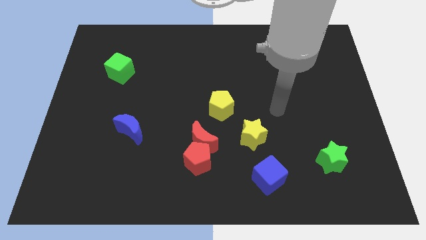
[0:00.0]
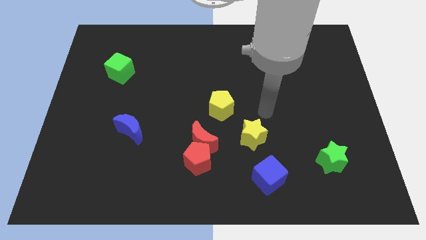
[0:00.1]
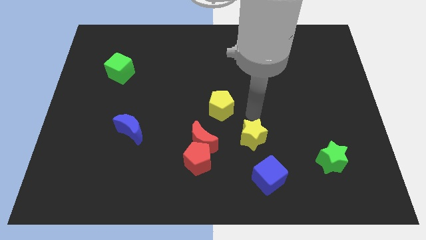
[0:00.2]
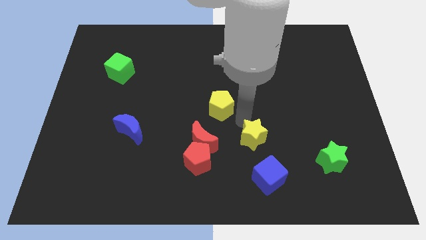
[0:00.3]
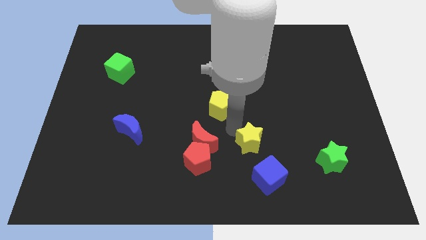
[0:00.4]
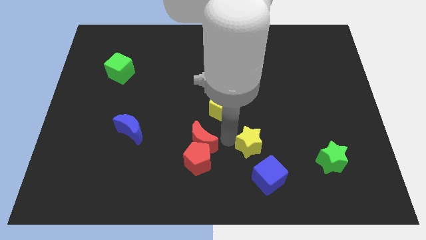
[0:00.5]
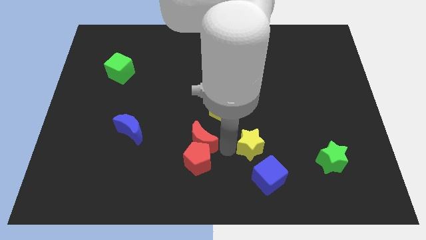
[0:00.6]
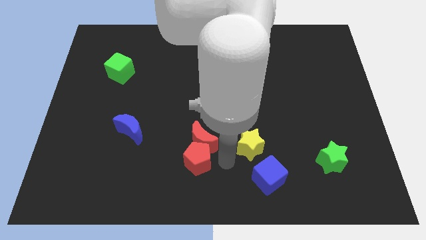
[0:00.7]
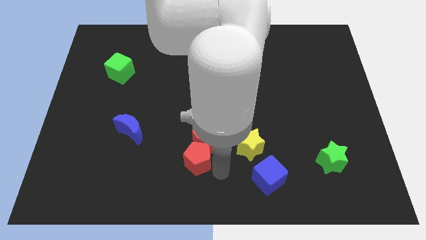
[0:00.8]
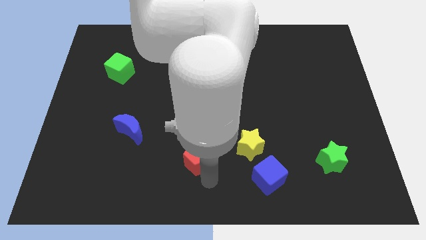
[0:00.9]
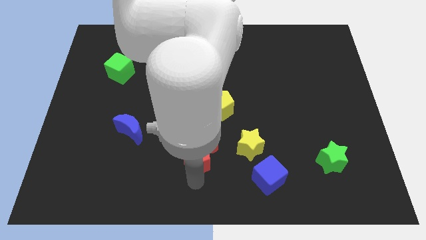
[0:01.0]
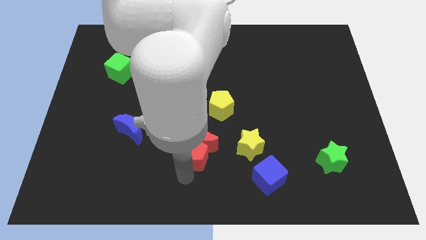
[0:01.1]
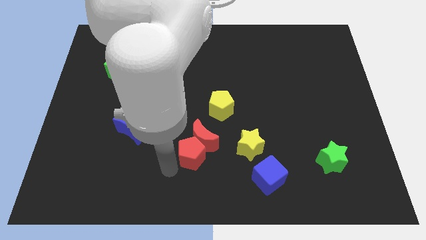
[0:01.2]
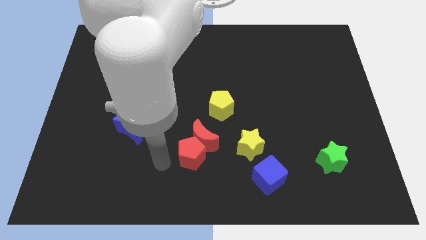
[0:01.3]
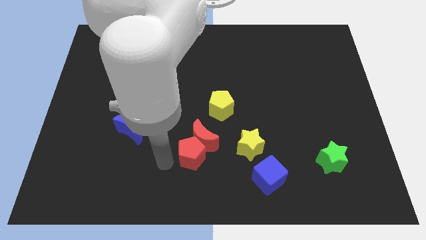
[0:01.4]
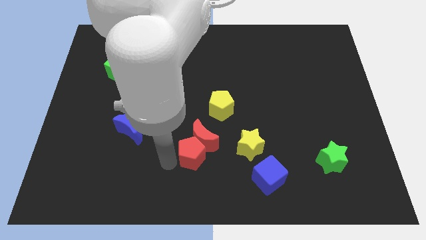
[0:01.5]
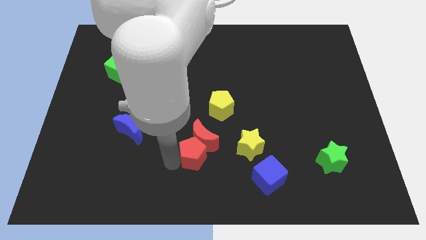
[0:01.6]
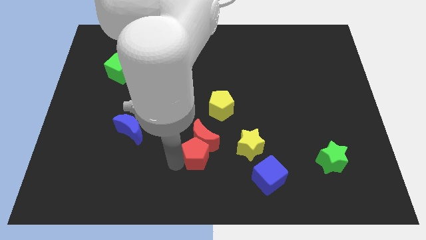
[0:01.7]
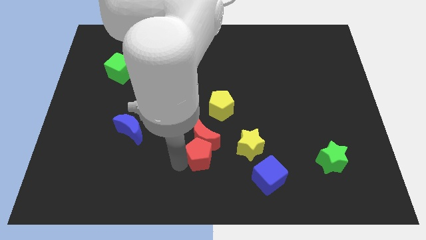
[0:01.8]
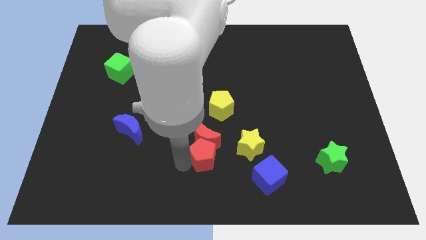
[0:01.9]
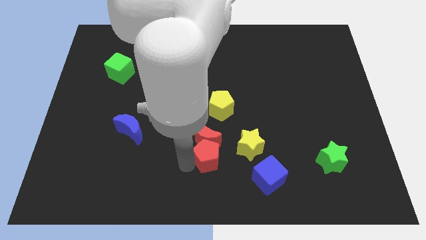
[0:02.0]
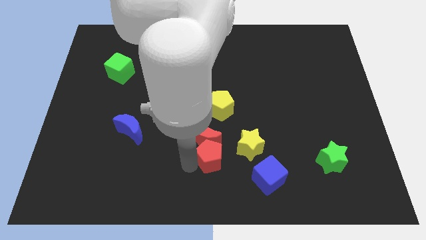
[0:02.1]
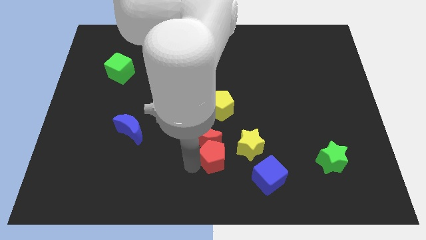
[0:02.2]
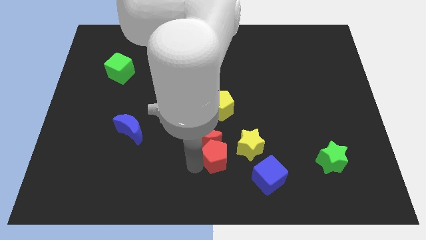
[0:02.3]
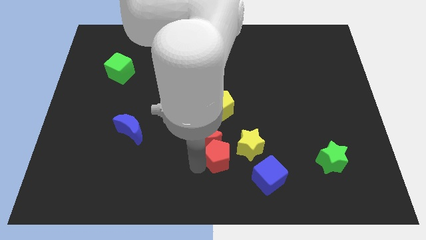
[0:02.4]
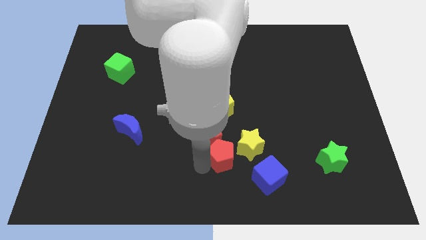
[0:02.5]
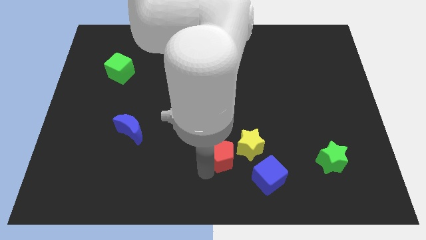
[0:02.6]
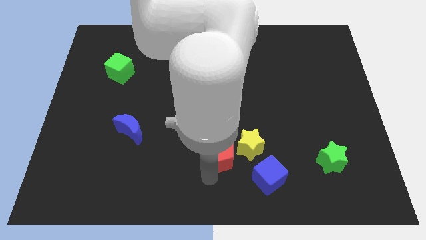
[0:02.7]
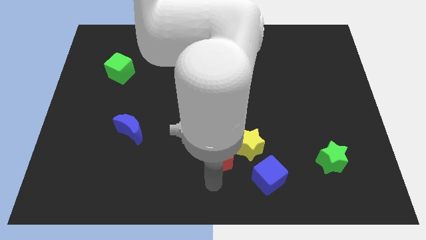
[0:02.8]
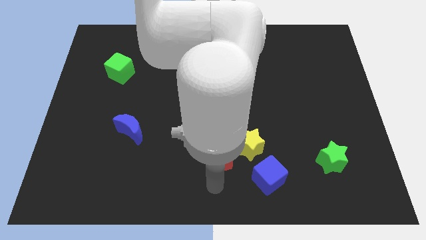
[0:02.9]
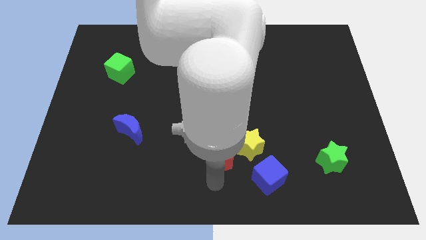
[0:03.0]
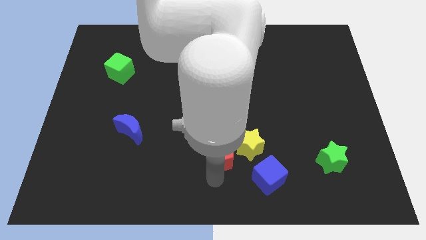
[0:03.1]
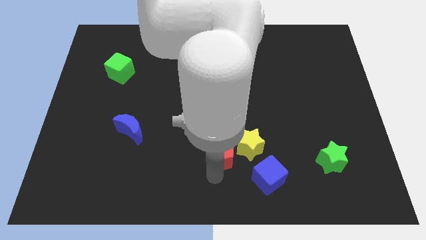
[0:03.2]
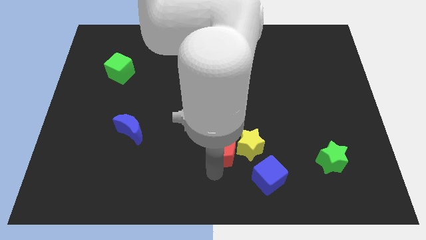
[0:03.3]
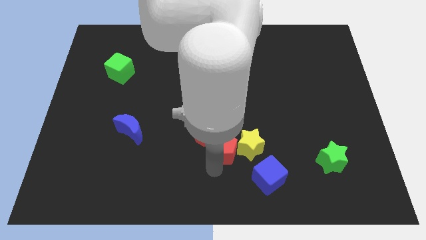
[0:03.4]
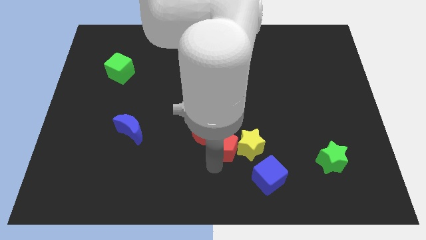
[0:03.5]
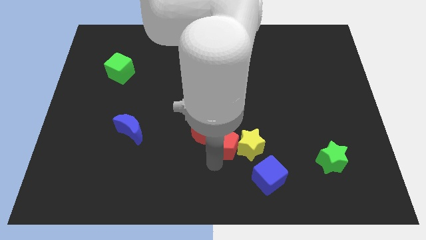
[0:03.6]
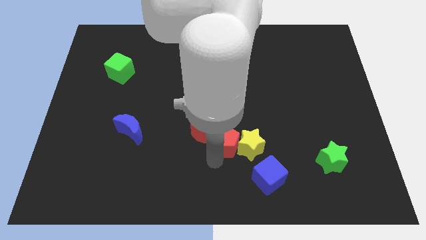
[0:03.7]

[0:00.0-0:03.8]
slide the red pentagon a little bit up and to the right

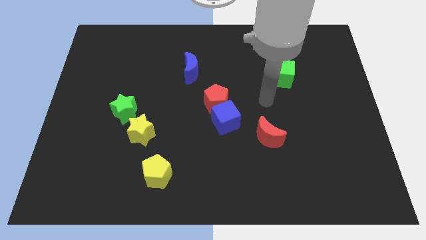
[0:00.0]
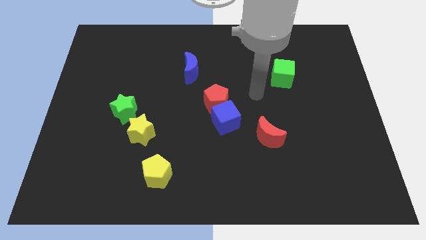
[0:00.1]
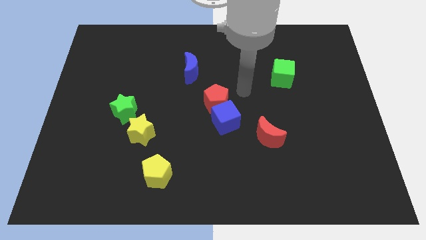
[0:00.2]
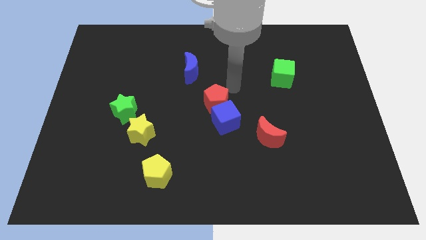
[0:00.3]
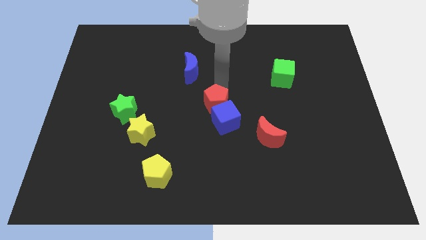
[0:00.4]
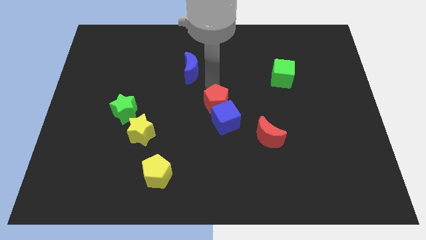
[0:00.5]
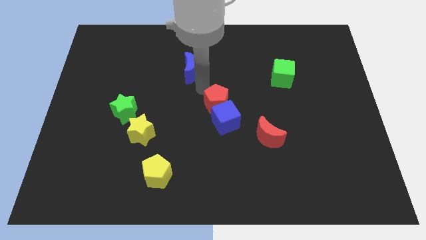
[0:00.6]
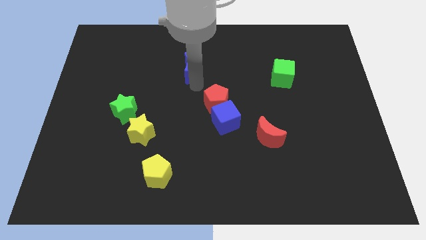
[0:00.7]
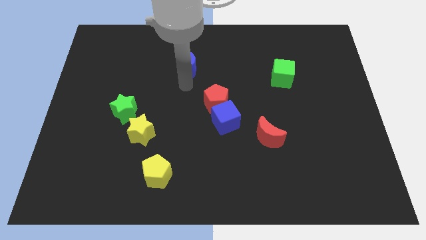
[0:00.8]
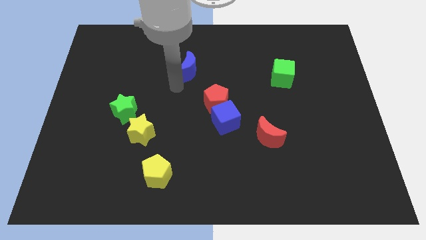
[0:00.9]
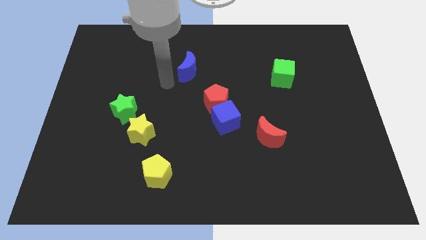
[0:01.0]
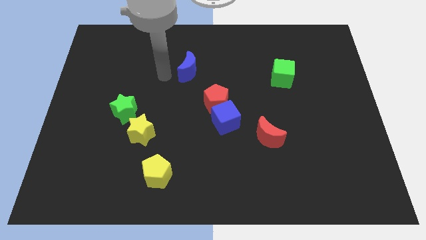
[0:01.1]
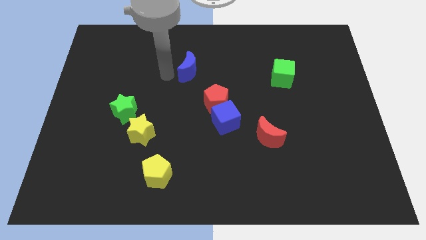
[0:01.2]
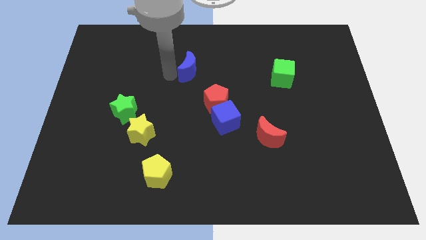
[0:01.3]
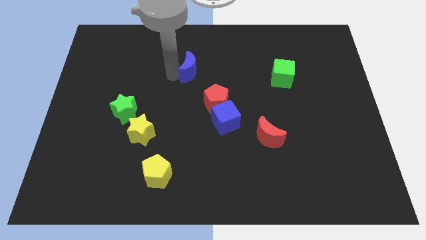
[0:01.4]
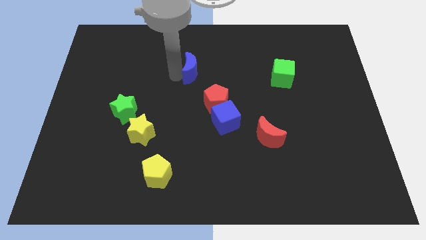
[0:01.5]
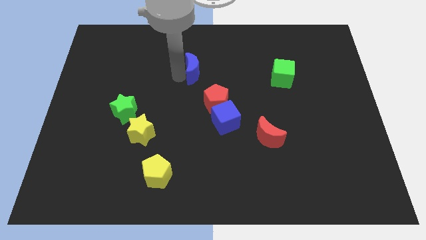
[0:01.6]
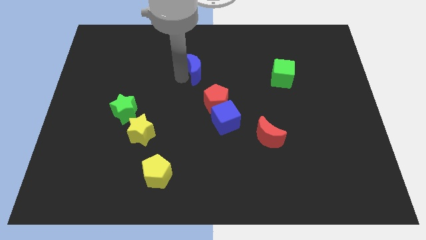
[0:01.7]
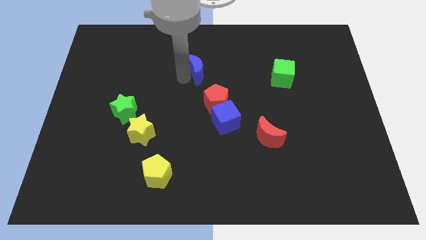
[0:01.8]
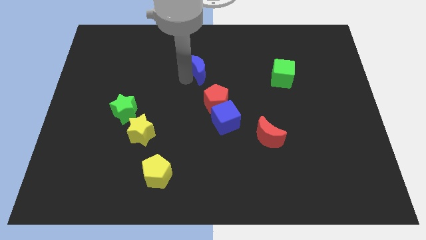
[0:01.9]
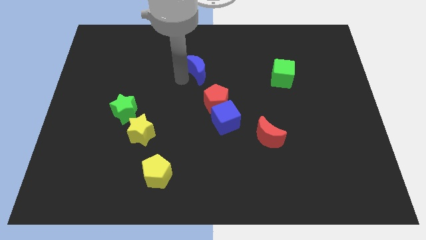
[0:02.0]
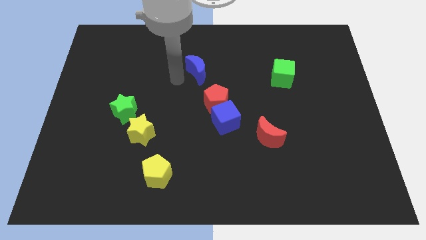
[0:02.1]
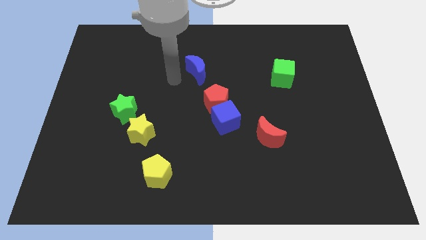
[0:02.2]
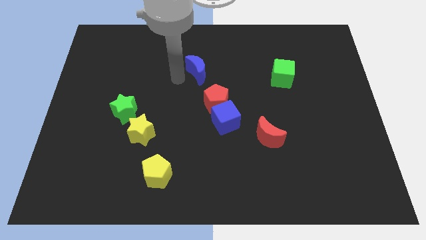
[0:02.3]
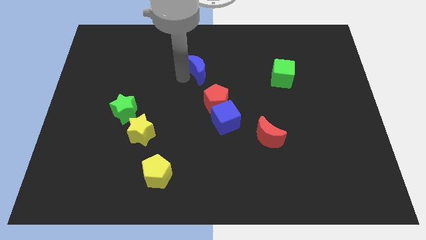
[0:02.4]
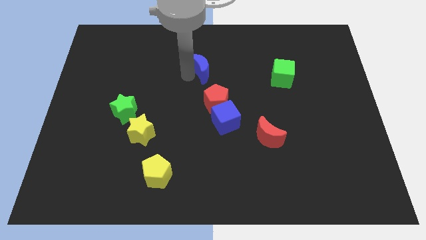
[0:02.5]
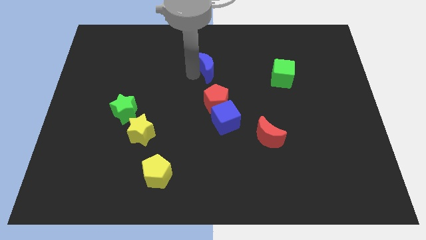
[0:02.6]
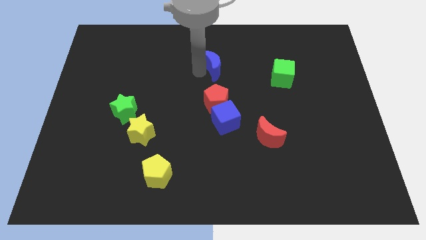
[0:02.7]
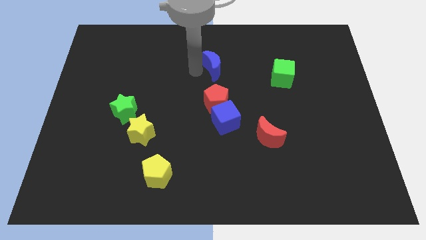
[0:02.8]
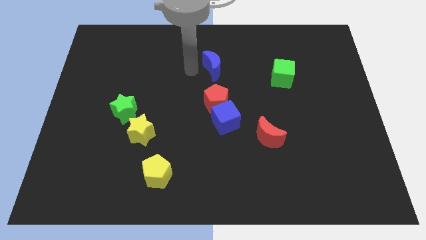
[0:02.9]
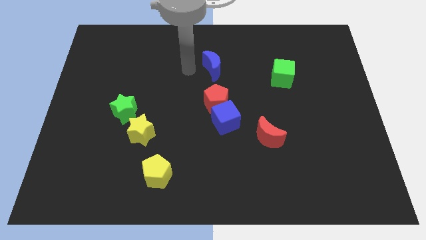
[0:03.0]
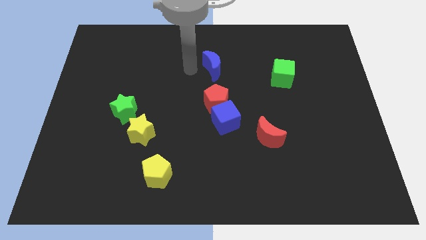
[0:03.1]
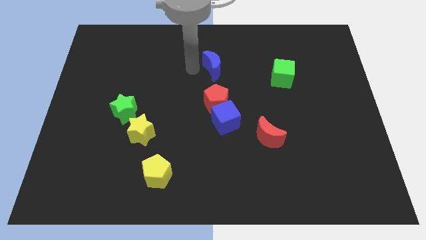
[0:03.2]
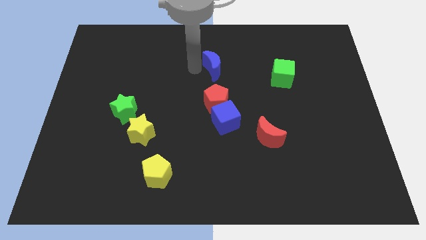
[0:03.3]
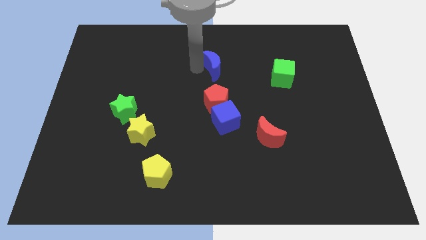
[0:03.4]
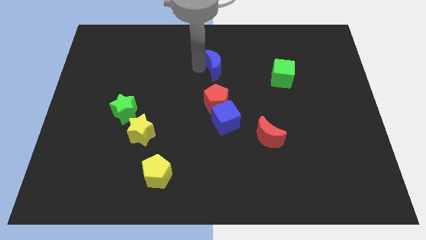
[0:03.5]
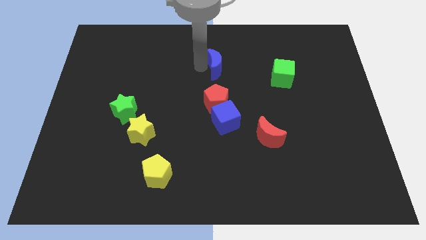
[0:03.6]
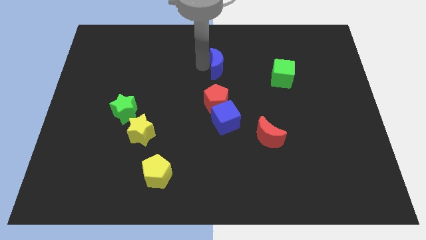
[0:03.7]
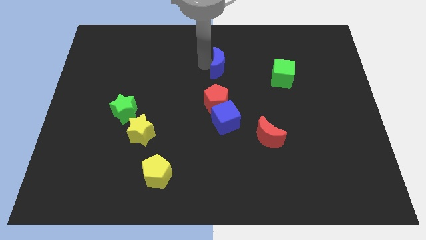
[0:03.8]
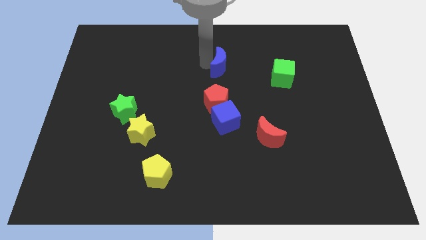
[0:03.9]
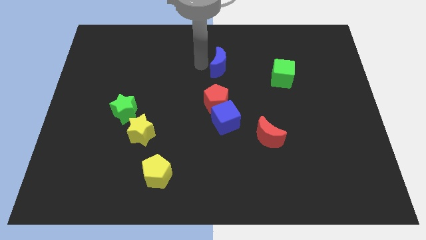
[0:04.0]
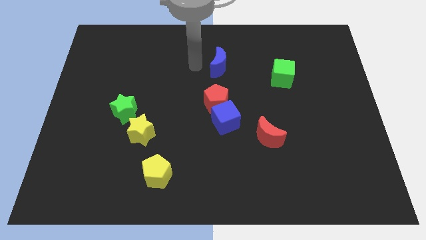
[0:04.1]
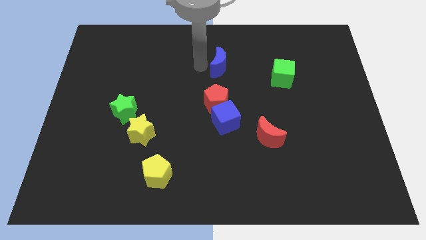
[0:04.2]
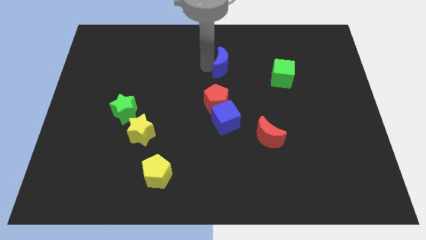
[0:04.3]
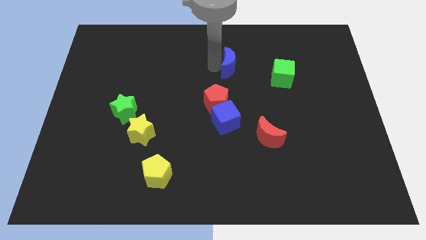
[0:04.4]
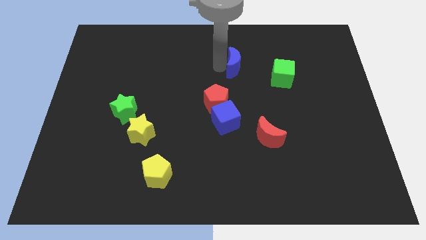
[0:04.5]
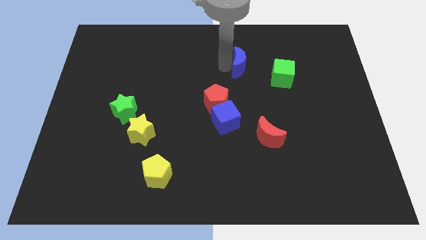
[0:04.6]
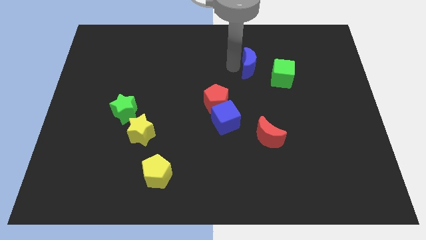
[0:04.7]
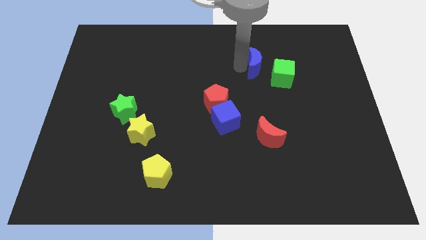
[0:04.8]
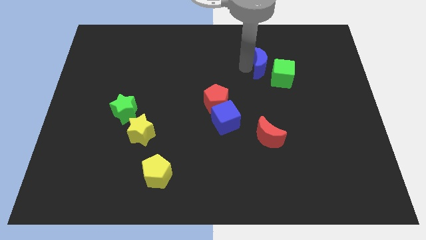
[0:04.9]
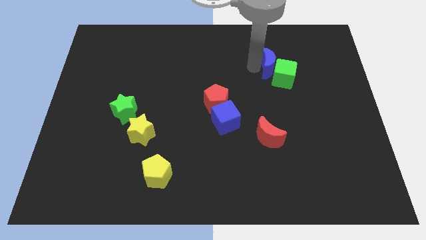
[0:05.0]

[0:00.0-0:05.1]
move the blue moon to the right
